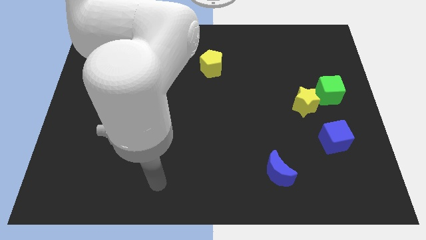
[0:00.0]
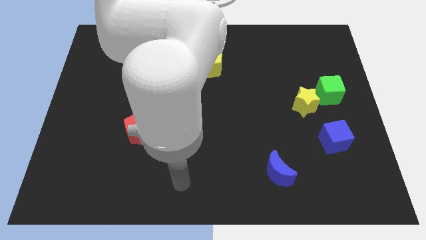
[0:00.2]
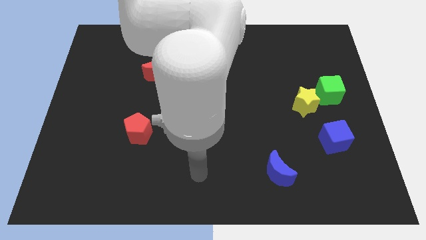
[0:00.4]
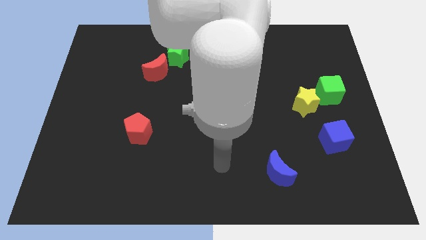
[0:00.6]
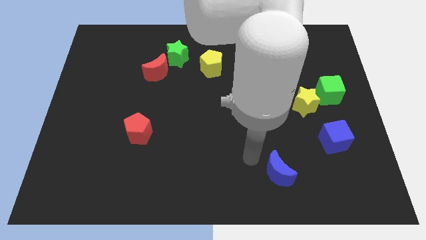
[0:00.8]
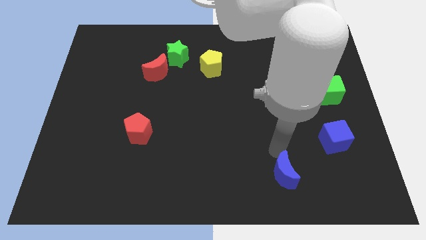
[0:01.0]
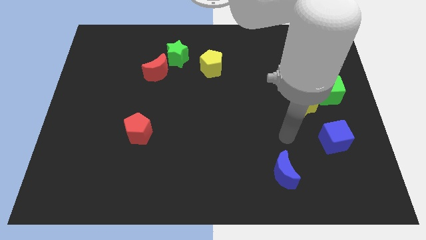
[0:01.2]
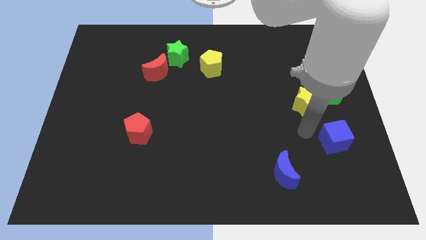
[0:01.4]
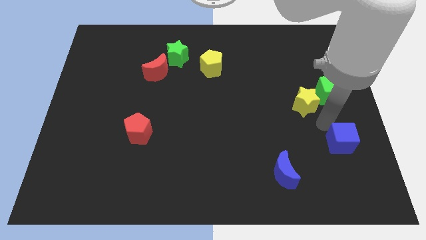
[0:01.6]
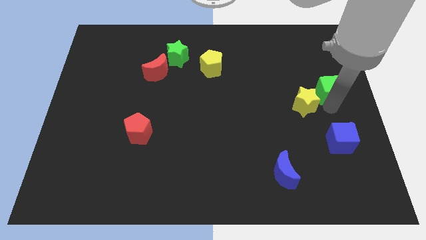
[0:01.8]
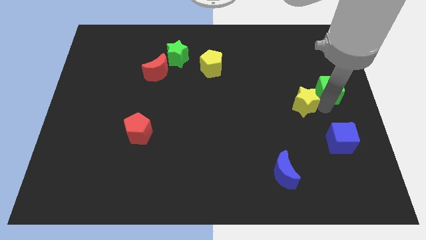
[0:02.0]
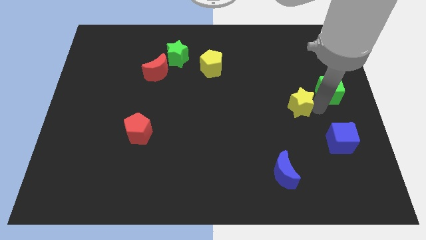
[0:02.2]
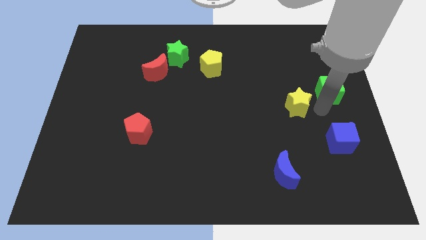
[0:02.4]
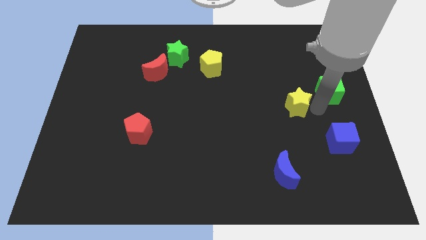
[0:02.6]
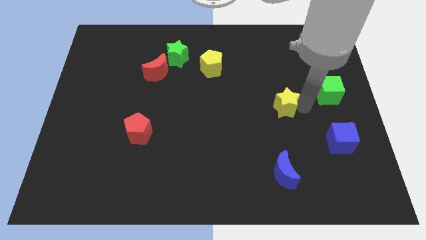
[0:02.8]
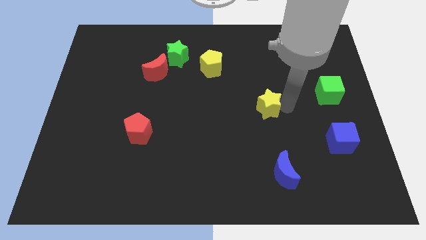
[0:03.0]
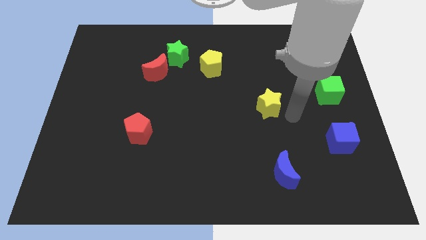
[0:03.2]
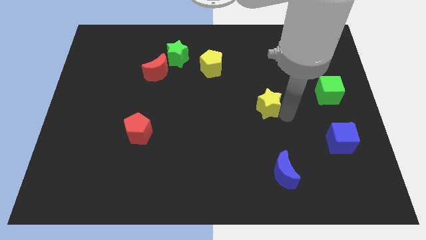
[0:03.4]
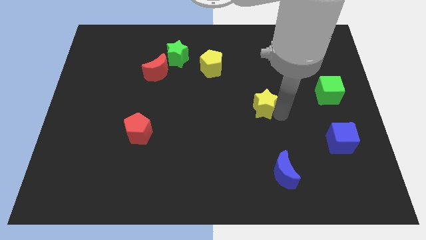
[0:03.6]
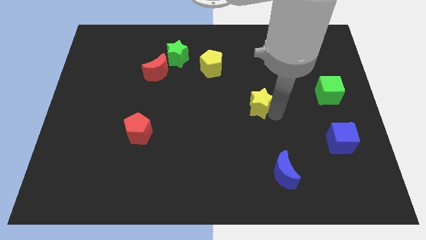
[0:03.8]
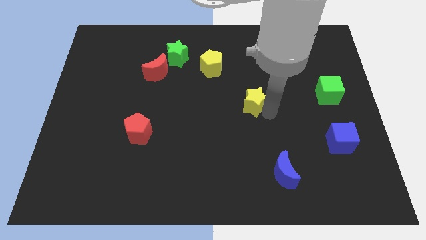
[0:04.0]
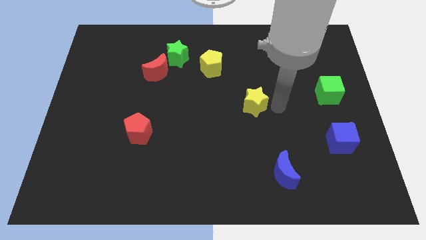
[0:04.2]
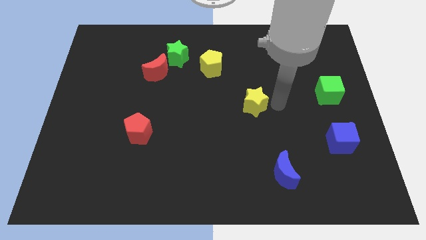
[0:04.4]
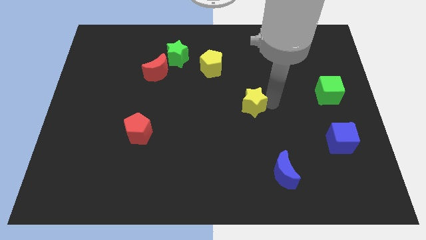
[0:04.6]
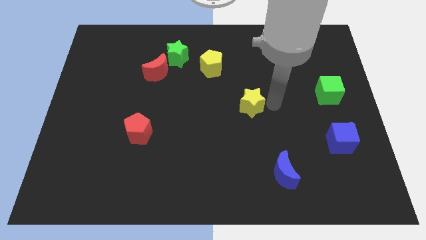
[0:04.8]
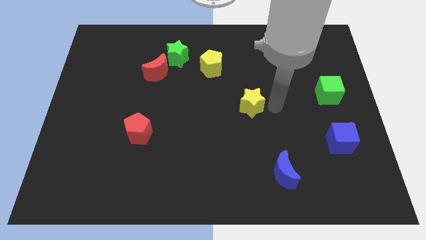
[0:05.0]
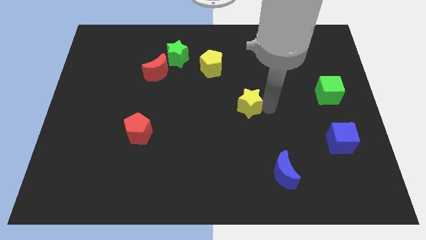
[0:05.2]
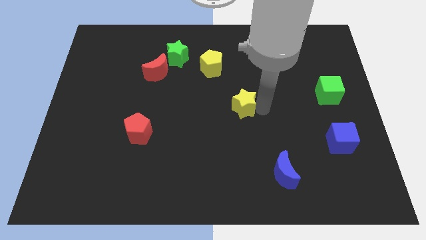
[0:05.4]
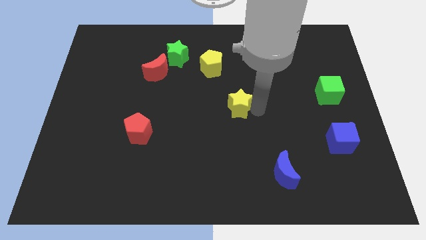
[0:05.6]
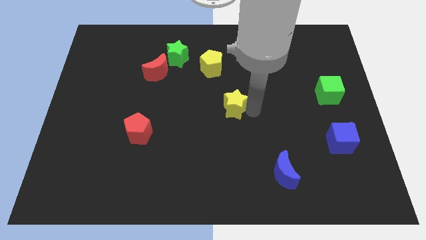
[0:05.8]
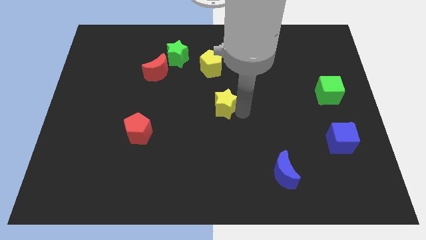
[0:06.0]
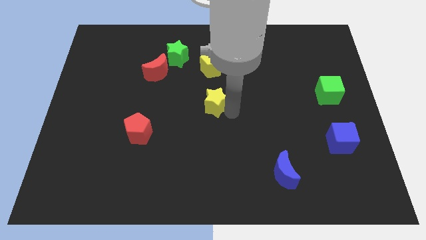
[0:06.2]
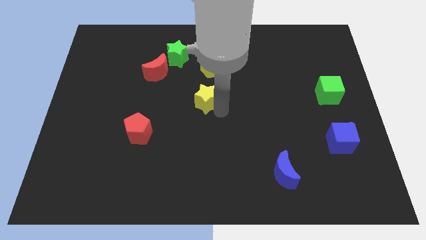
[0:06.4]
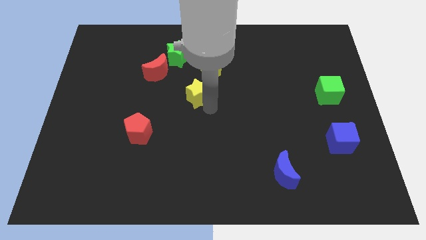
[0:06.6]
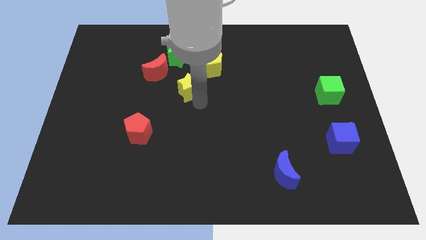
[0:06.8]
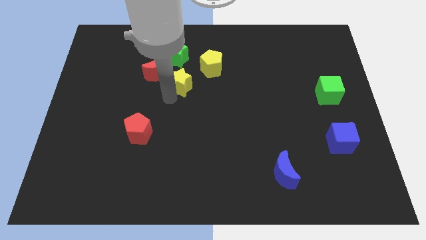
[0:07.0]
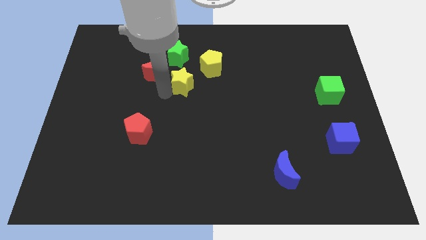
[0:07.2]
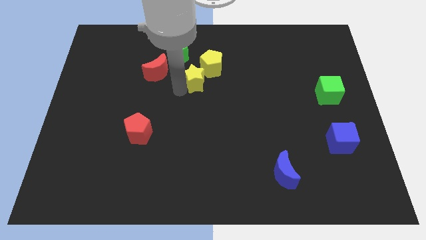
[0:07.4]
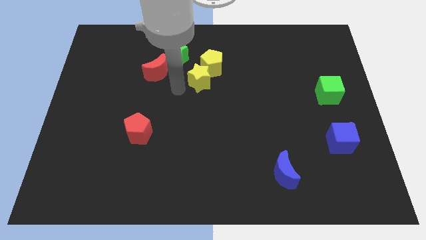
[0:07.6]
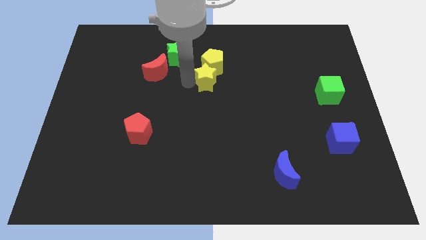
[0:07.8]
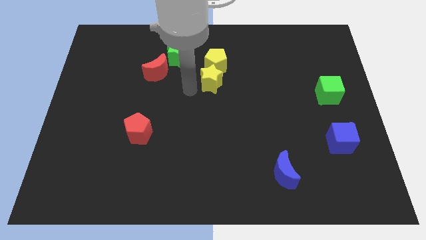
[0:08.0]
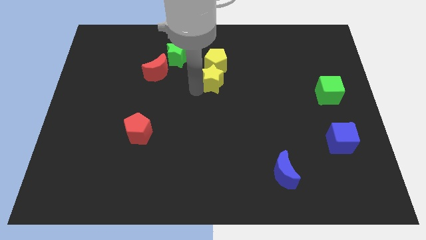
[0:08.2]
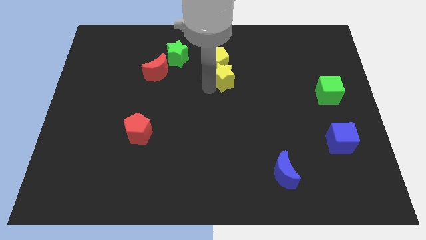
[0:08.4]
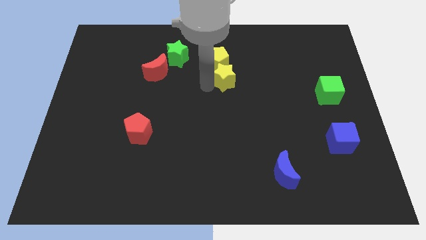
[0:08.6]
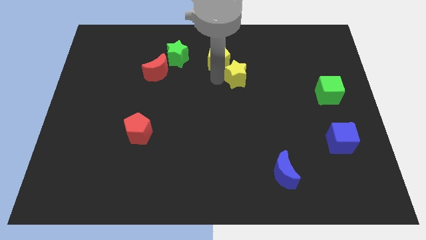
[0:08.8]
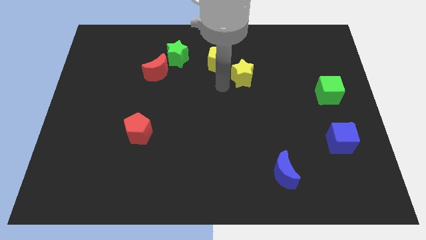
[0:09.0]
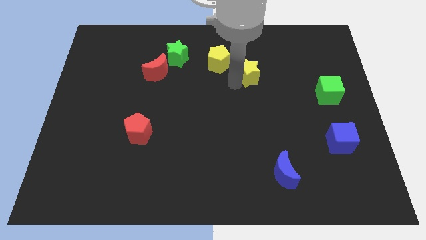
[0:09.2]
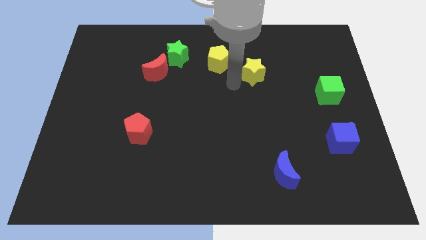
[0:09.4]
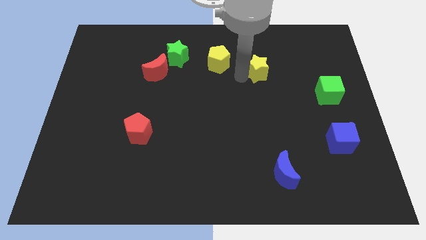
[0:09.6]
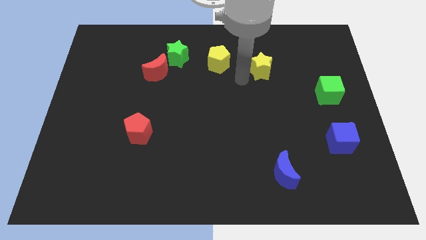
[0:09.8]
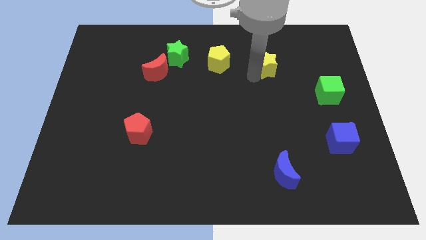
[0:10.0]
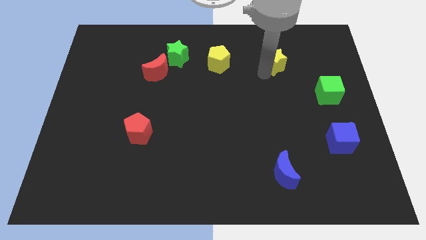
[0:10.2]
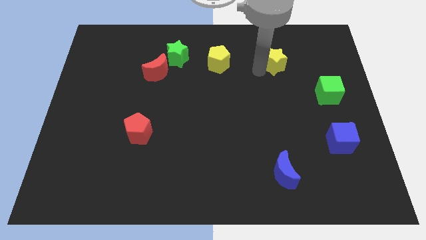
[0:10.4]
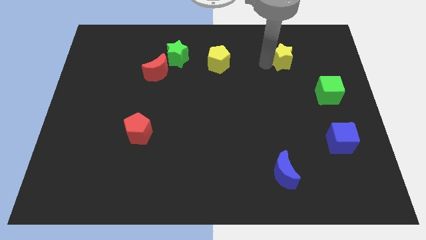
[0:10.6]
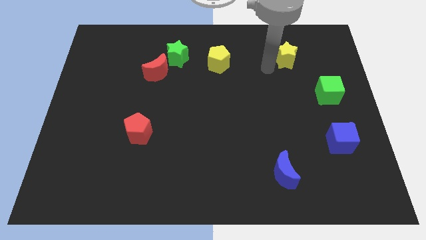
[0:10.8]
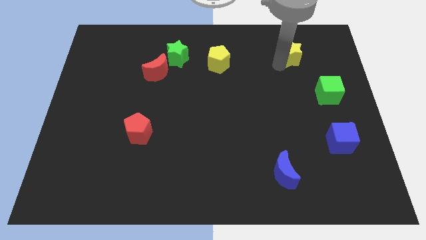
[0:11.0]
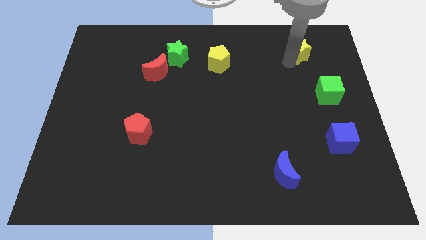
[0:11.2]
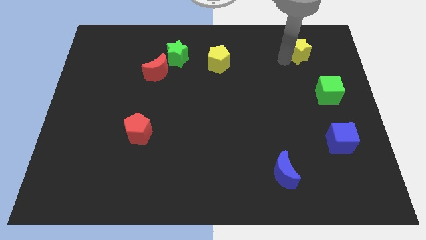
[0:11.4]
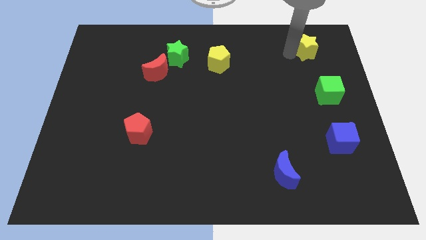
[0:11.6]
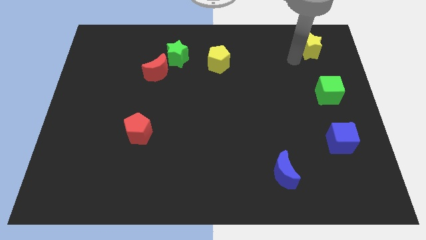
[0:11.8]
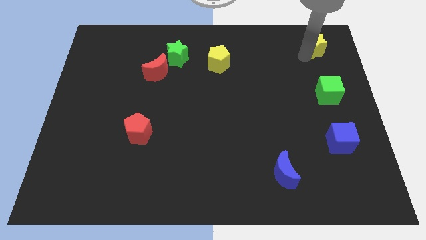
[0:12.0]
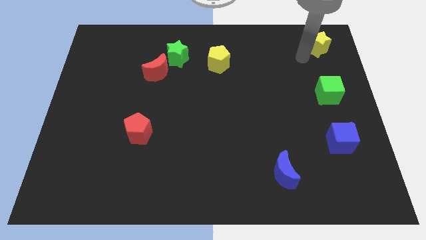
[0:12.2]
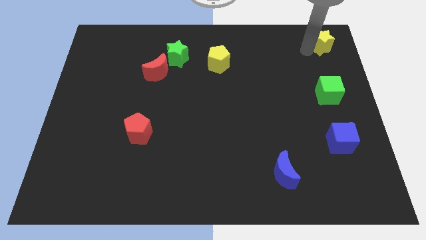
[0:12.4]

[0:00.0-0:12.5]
put the yellow star to the top right of the board
